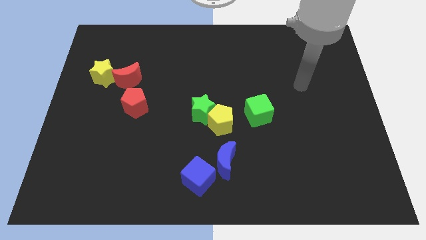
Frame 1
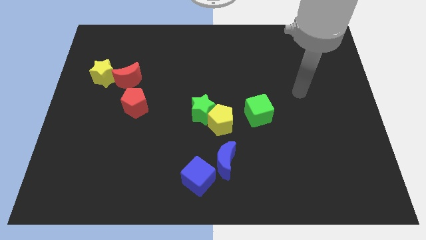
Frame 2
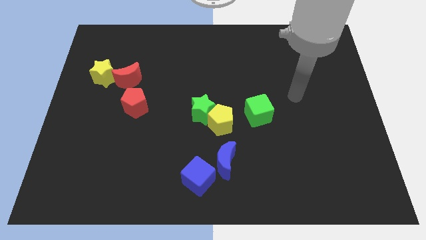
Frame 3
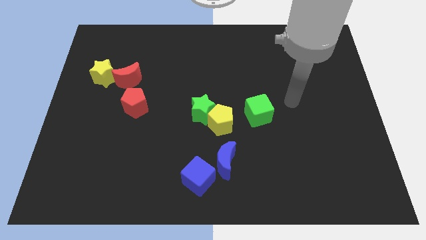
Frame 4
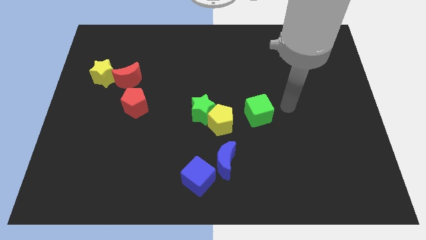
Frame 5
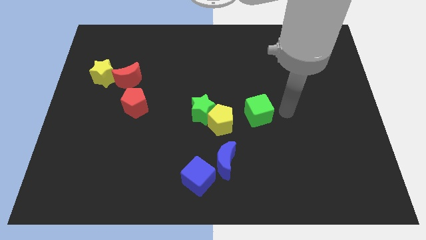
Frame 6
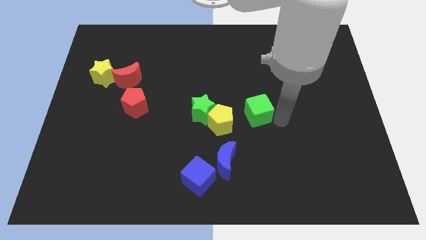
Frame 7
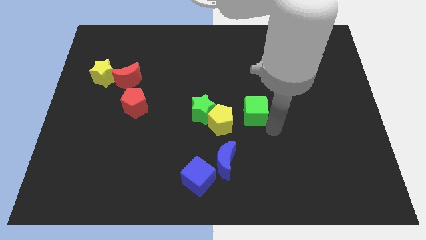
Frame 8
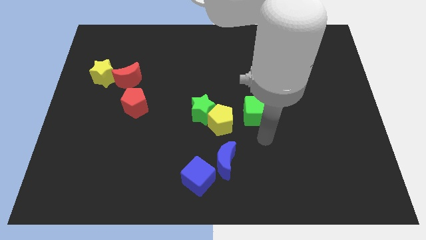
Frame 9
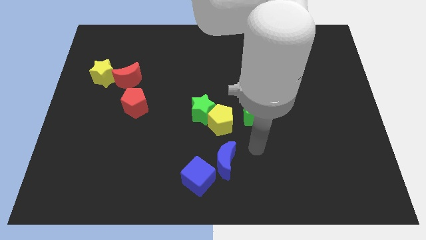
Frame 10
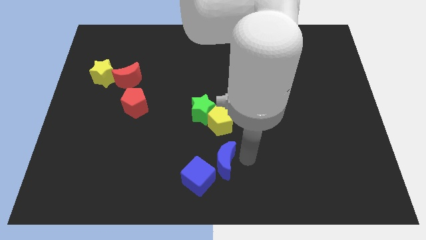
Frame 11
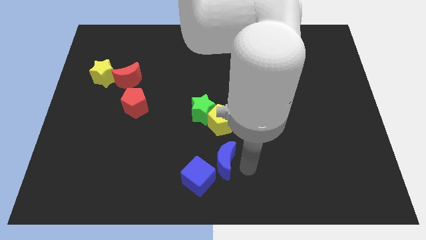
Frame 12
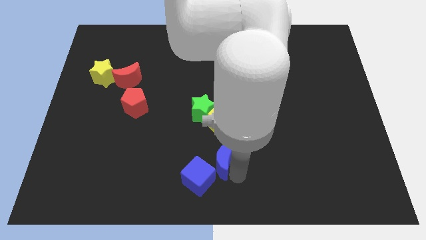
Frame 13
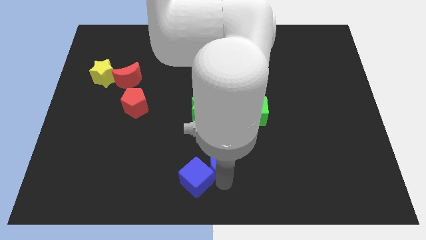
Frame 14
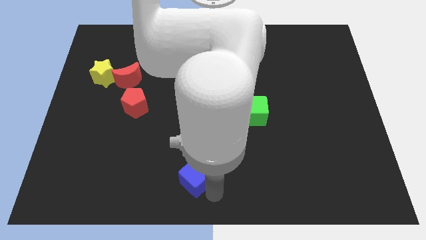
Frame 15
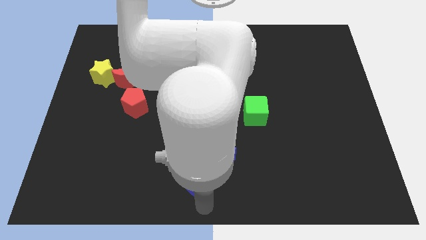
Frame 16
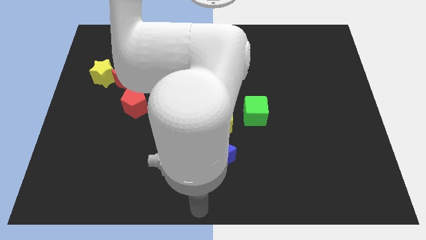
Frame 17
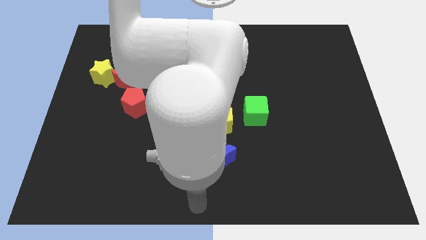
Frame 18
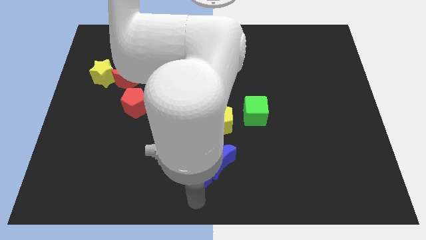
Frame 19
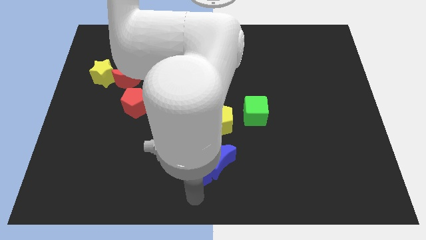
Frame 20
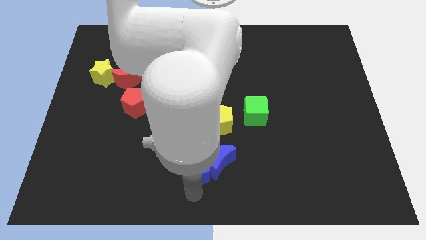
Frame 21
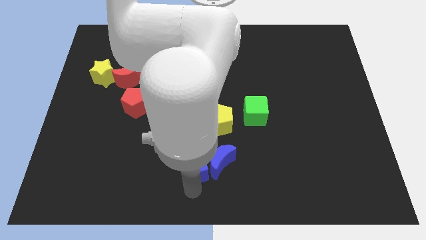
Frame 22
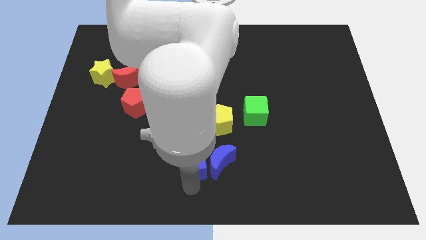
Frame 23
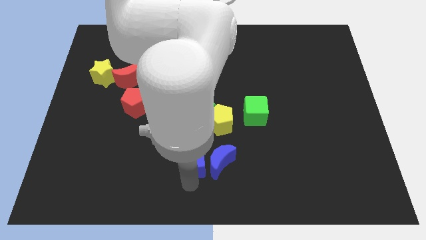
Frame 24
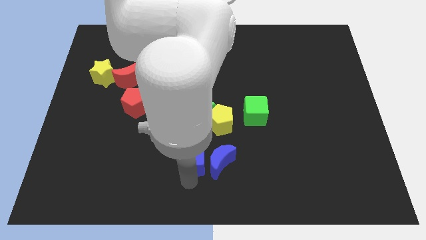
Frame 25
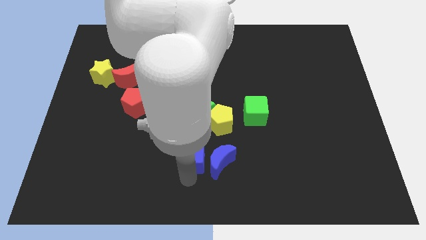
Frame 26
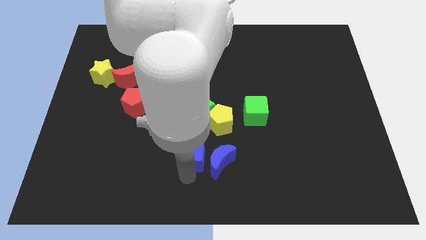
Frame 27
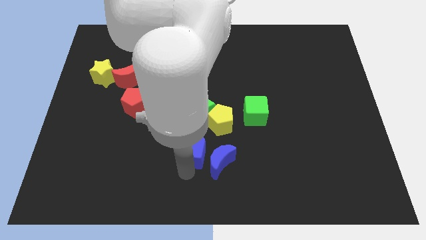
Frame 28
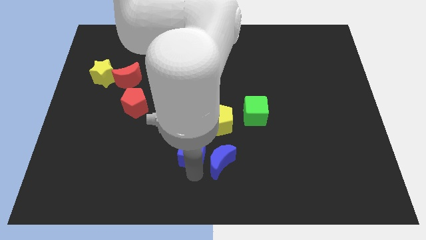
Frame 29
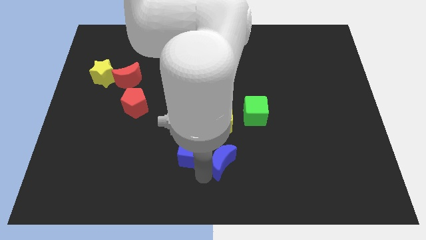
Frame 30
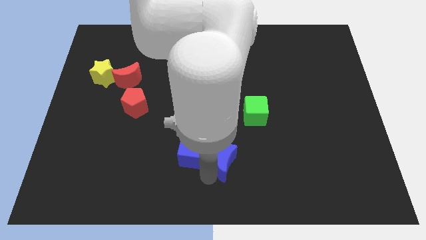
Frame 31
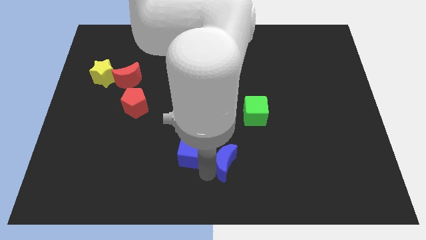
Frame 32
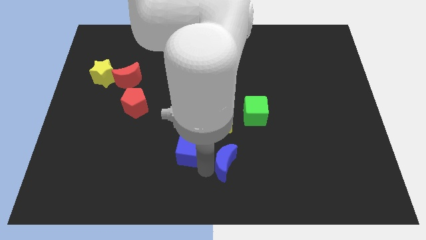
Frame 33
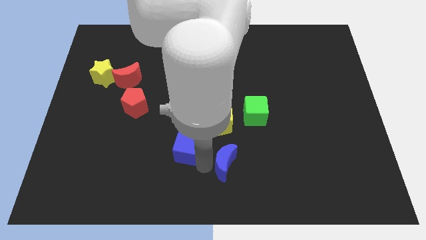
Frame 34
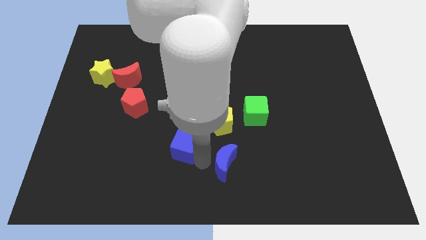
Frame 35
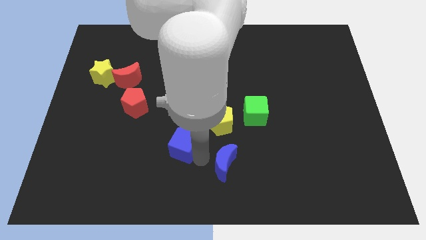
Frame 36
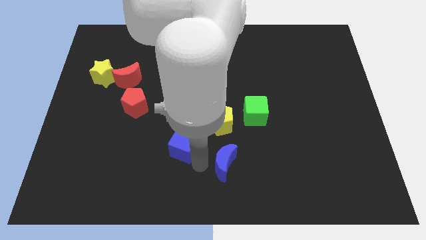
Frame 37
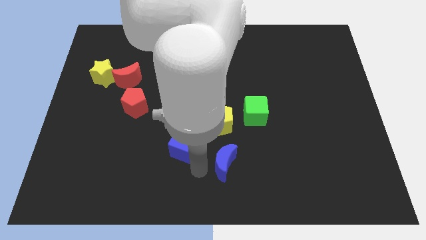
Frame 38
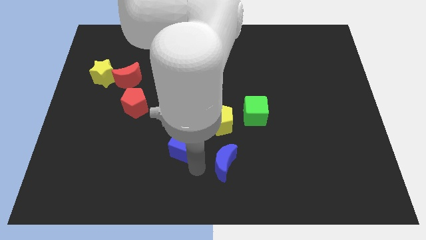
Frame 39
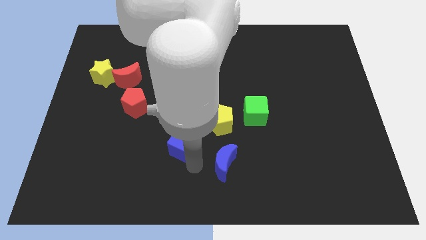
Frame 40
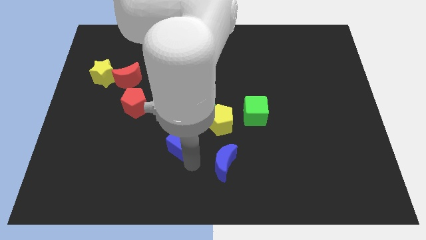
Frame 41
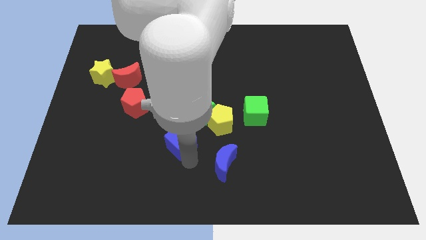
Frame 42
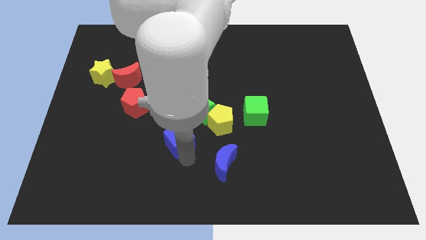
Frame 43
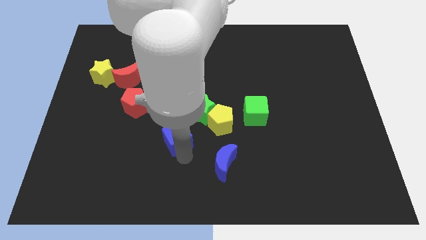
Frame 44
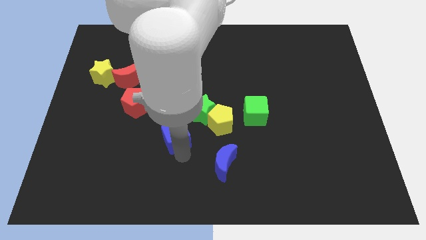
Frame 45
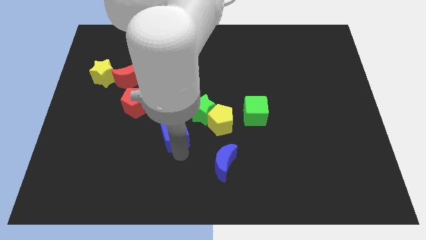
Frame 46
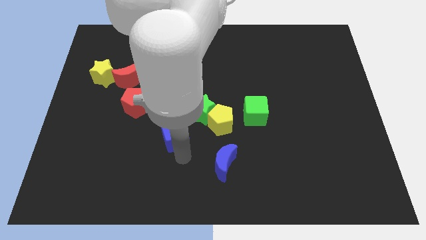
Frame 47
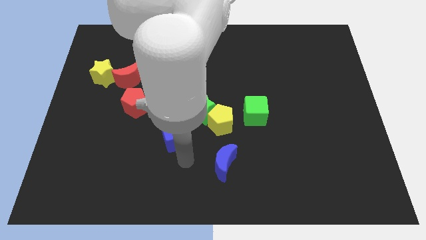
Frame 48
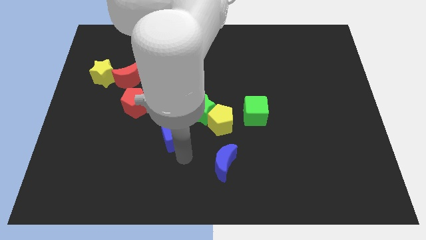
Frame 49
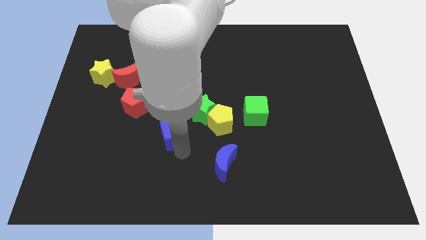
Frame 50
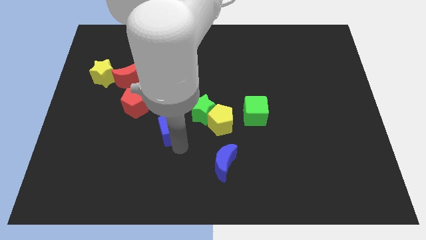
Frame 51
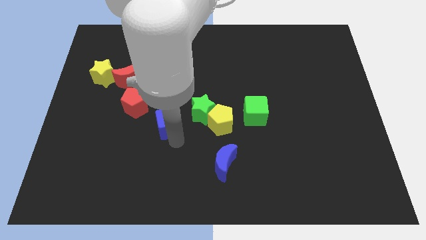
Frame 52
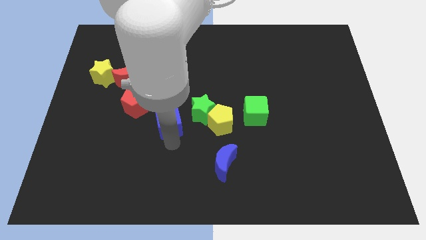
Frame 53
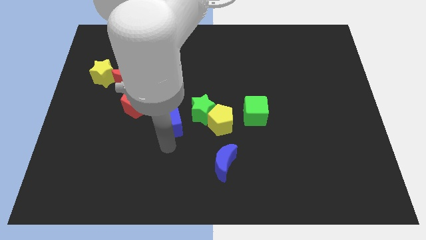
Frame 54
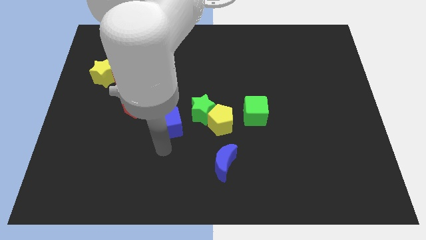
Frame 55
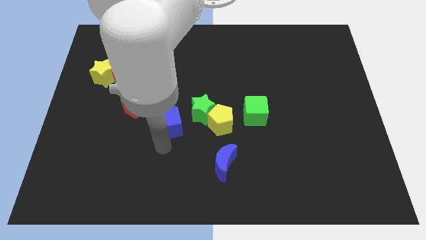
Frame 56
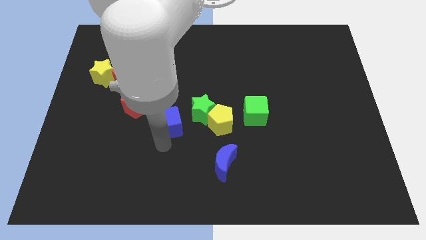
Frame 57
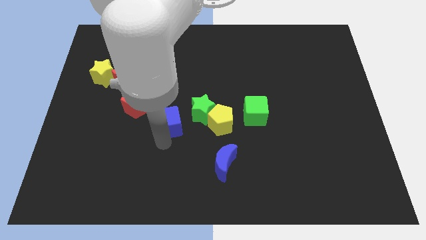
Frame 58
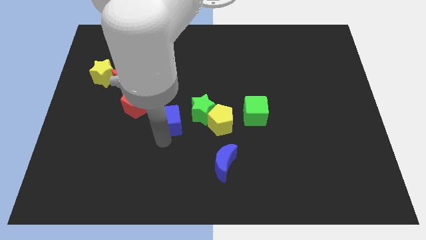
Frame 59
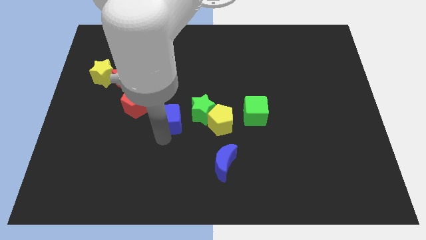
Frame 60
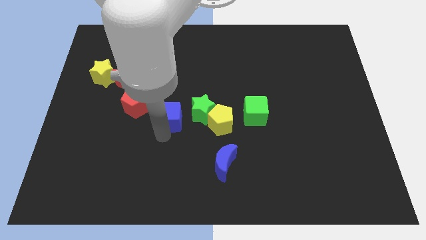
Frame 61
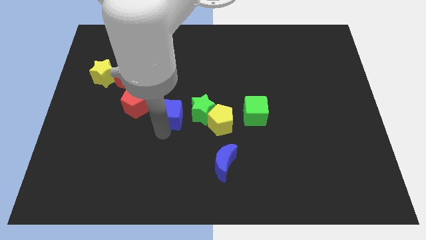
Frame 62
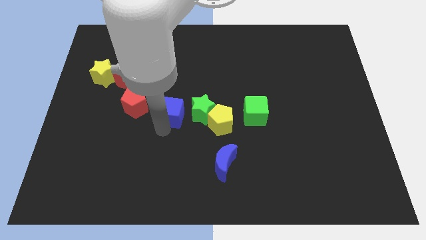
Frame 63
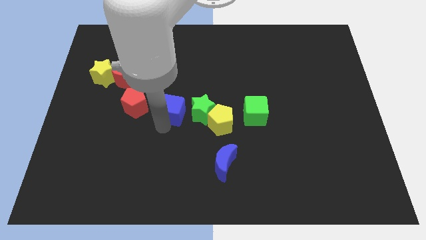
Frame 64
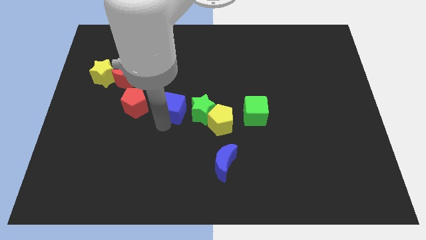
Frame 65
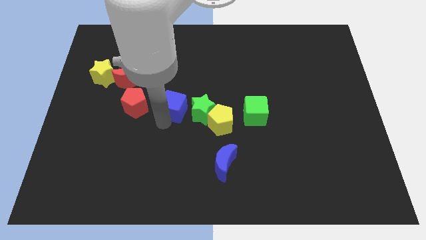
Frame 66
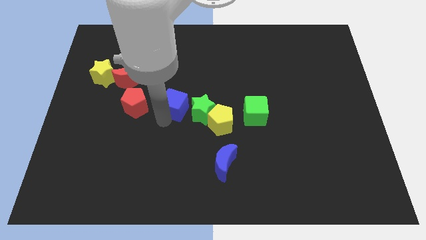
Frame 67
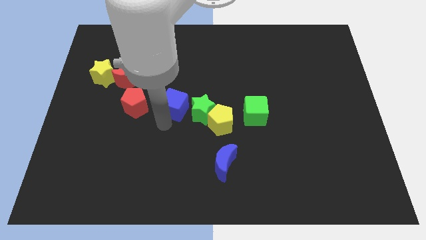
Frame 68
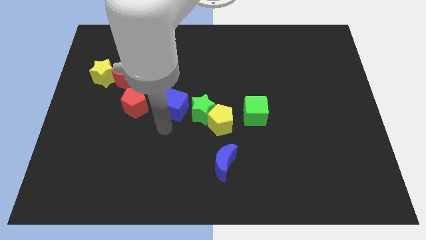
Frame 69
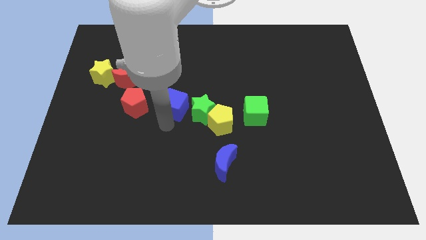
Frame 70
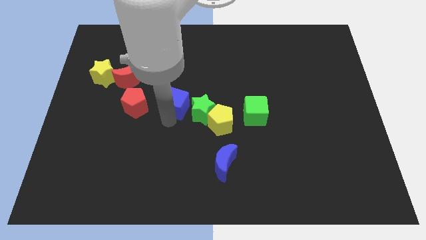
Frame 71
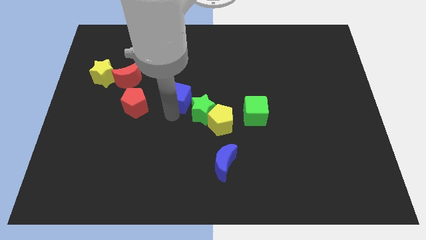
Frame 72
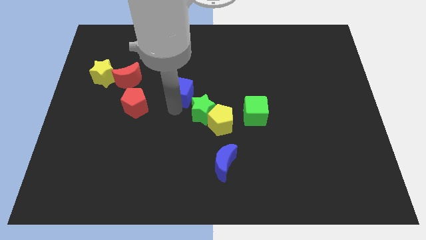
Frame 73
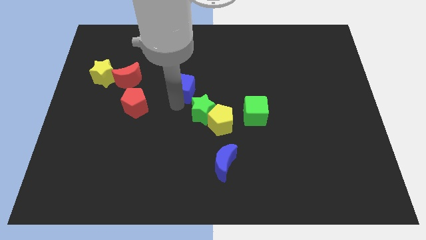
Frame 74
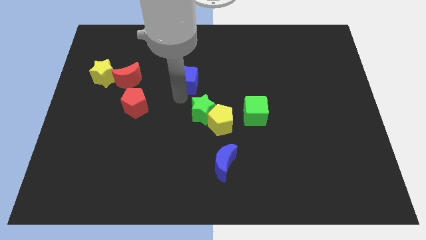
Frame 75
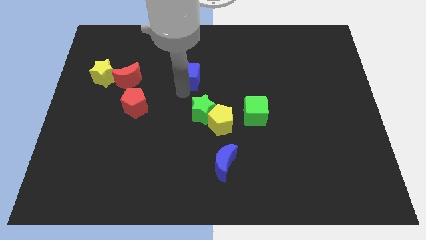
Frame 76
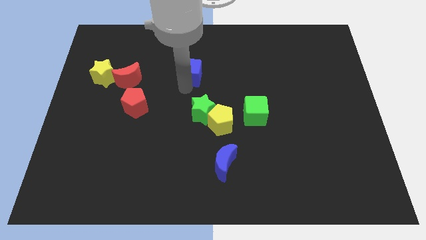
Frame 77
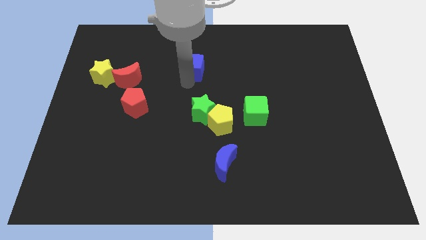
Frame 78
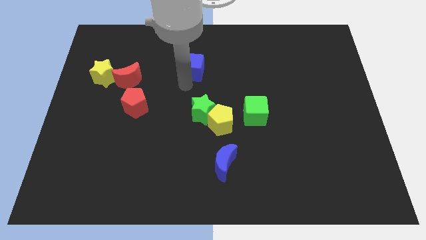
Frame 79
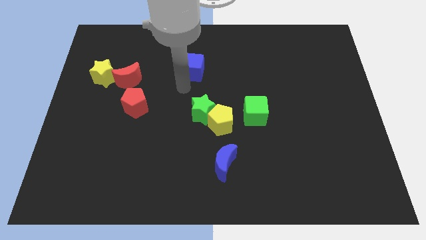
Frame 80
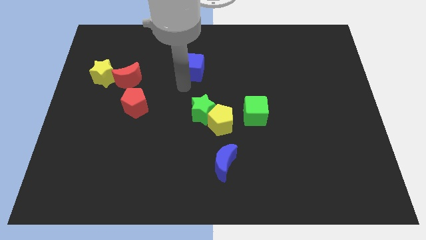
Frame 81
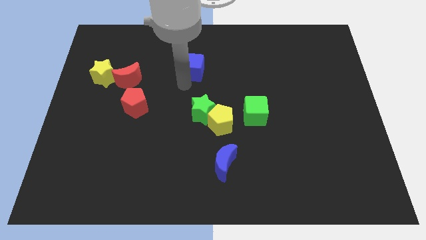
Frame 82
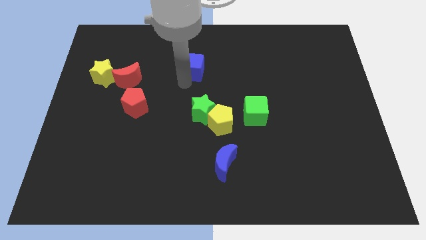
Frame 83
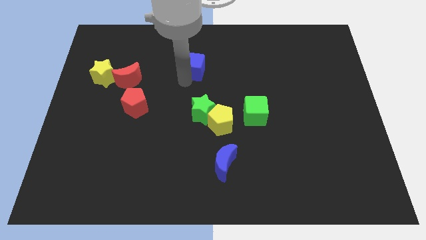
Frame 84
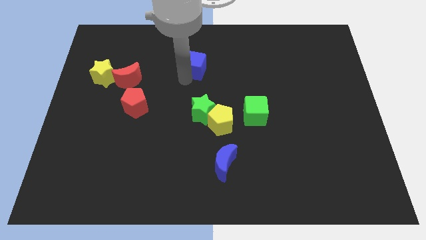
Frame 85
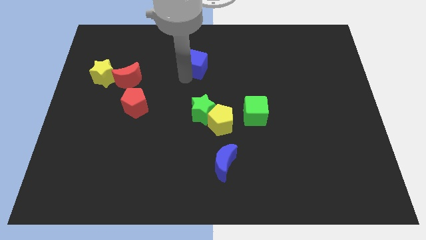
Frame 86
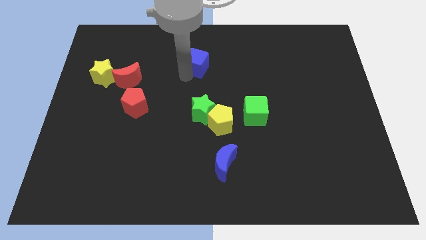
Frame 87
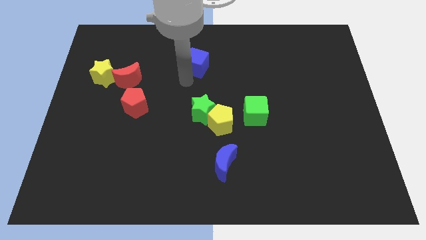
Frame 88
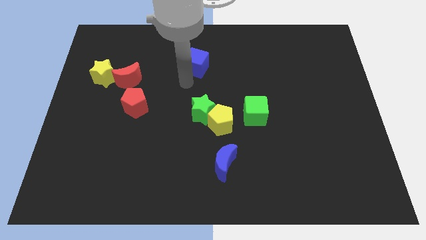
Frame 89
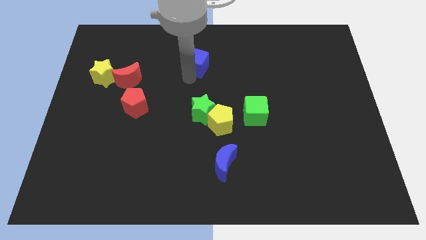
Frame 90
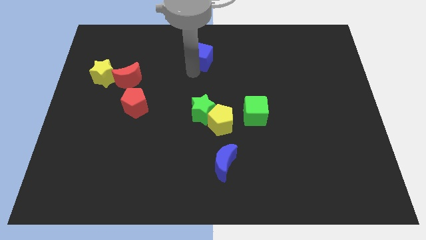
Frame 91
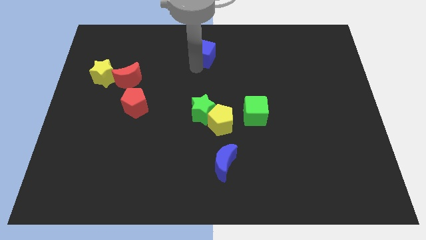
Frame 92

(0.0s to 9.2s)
move the blue cube to the top side
